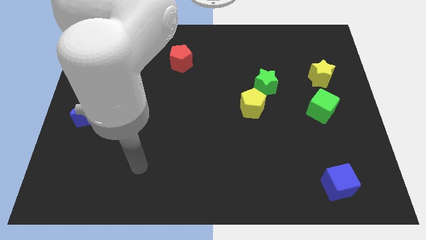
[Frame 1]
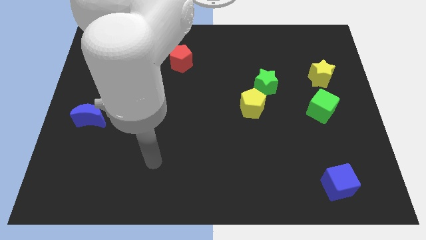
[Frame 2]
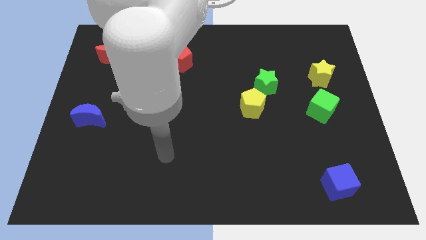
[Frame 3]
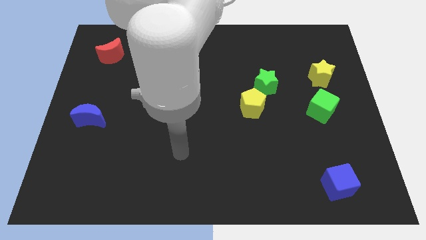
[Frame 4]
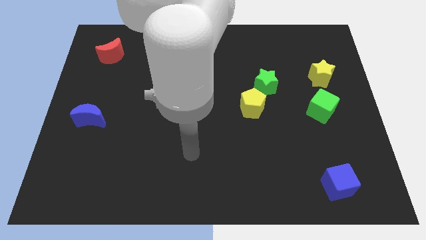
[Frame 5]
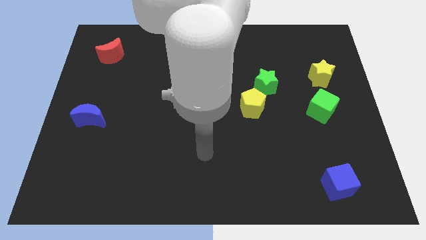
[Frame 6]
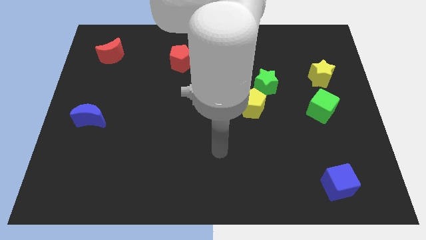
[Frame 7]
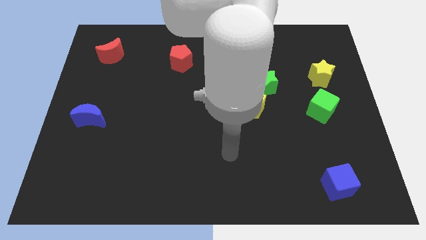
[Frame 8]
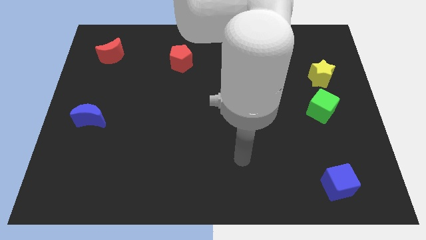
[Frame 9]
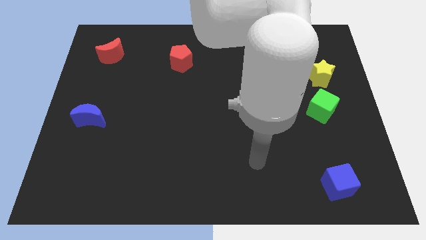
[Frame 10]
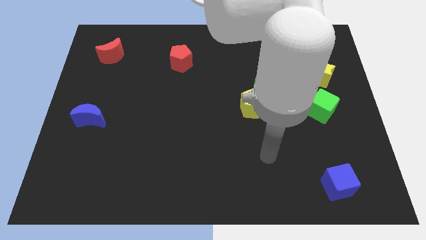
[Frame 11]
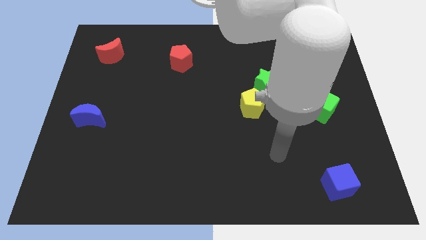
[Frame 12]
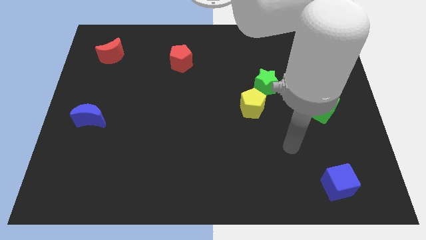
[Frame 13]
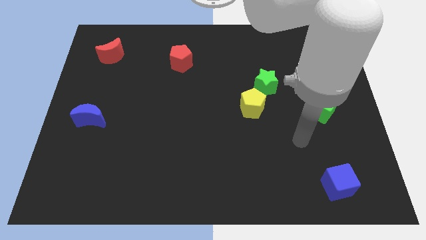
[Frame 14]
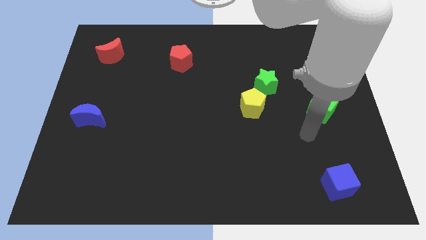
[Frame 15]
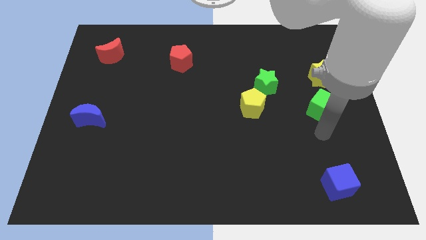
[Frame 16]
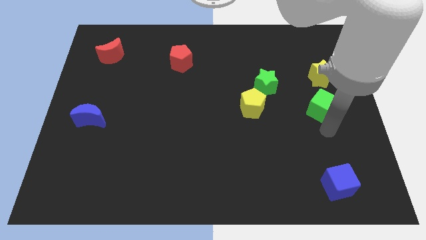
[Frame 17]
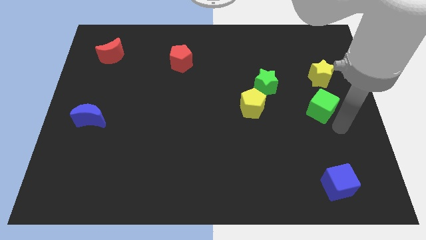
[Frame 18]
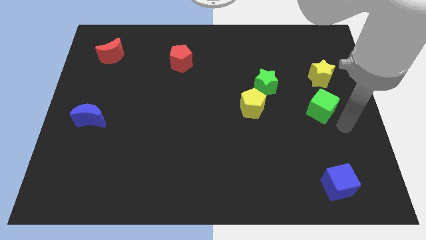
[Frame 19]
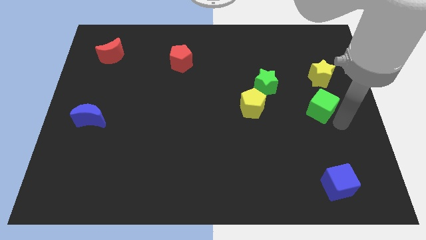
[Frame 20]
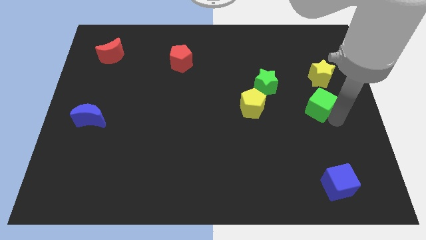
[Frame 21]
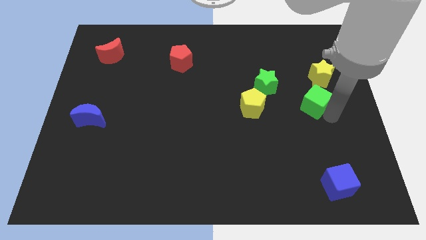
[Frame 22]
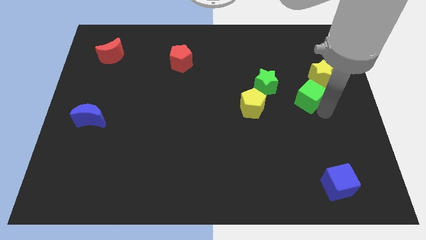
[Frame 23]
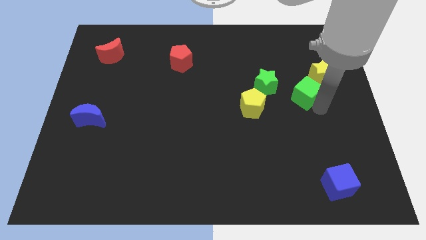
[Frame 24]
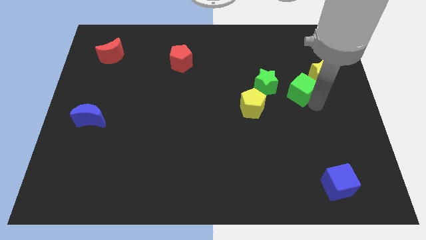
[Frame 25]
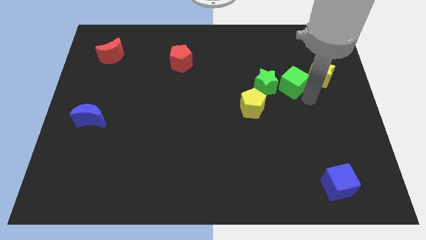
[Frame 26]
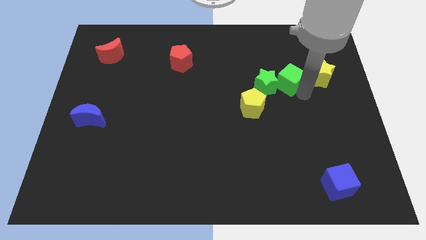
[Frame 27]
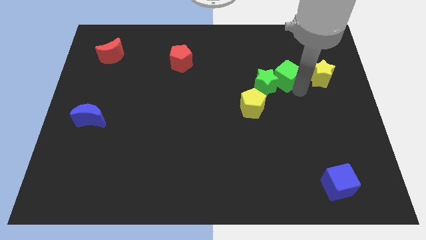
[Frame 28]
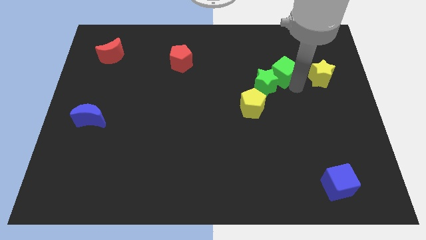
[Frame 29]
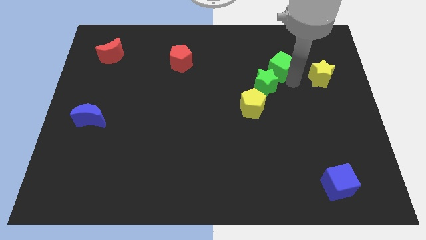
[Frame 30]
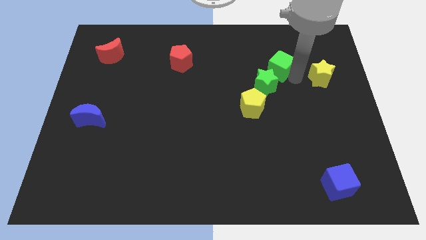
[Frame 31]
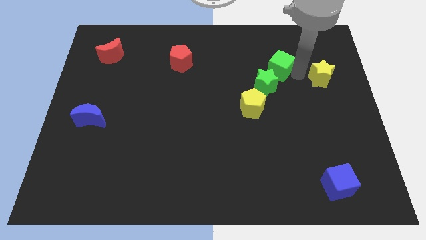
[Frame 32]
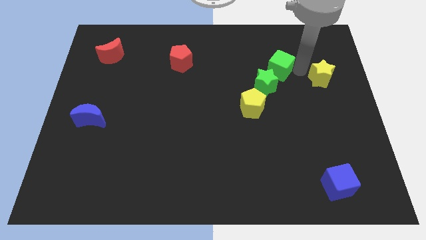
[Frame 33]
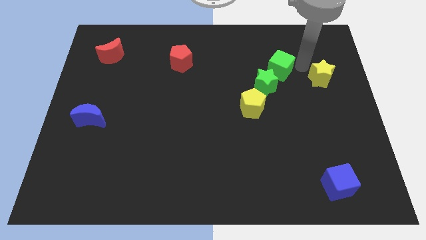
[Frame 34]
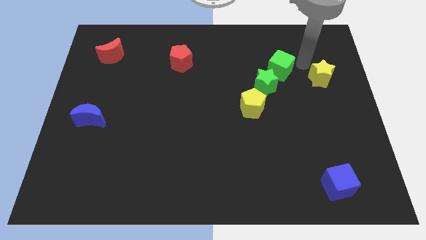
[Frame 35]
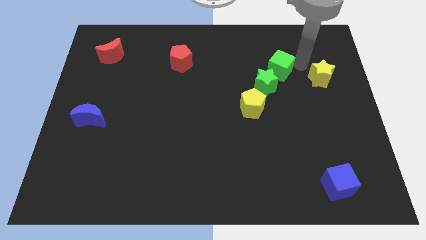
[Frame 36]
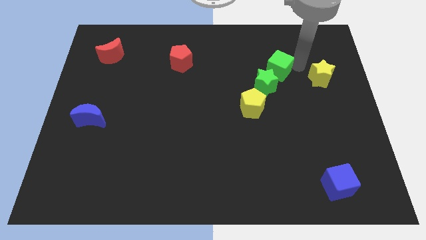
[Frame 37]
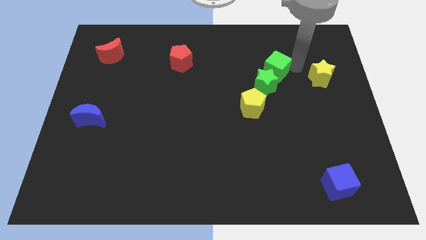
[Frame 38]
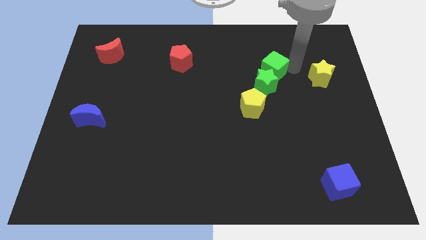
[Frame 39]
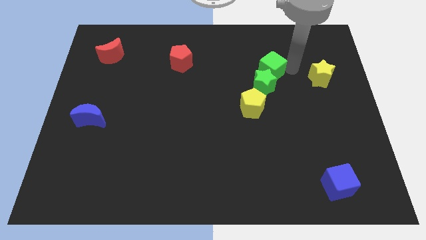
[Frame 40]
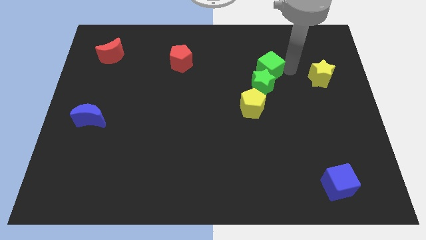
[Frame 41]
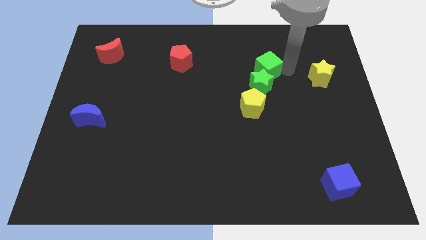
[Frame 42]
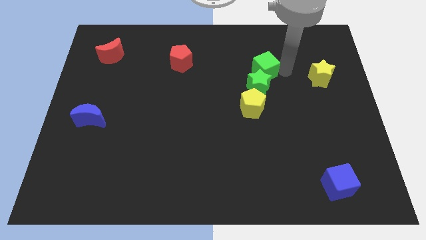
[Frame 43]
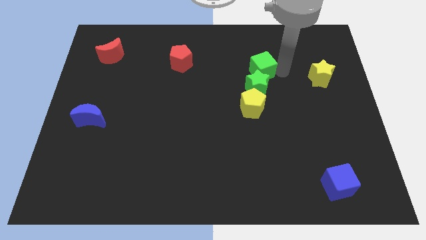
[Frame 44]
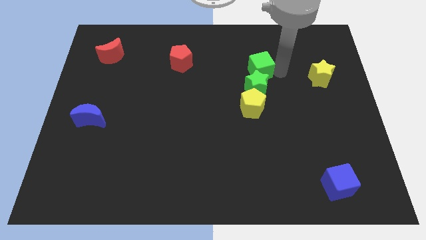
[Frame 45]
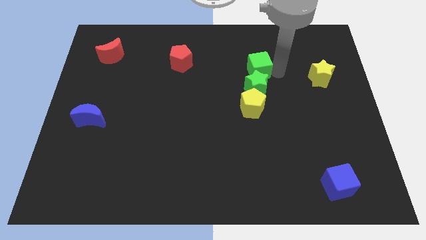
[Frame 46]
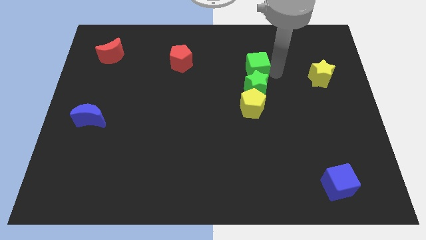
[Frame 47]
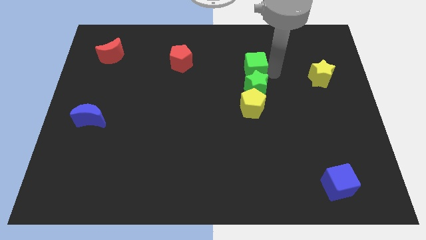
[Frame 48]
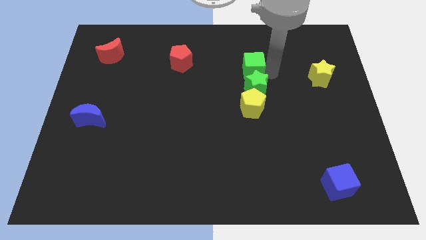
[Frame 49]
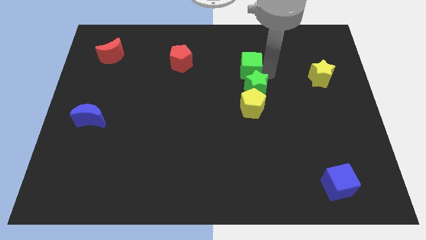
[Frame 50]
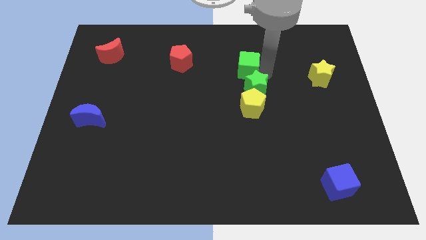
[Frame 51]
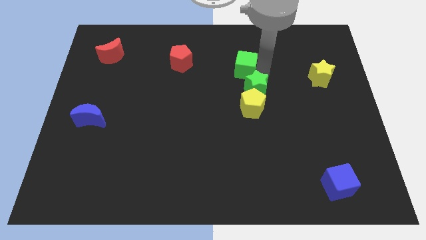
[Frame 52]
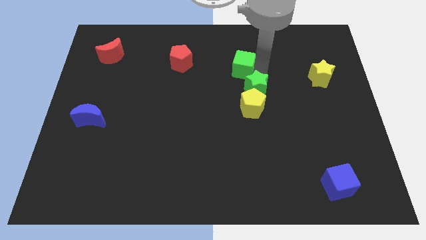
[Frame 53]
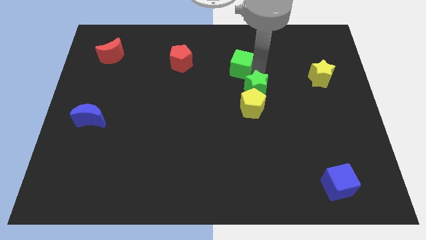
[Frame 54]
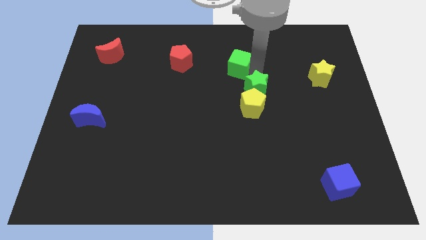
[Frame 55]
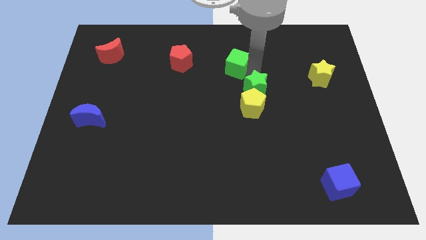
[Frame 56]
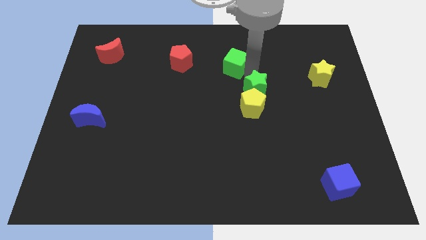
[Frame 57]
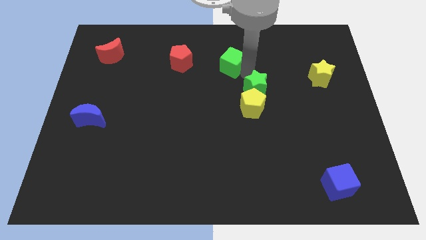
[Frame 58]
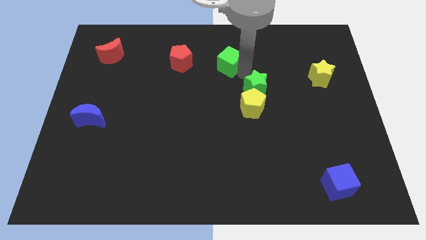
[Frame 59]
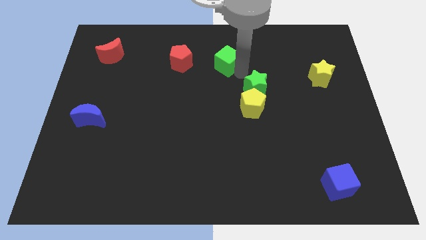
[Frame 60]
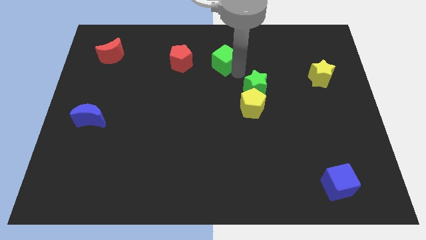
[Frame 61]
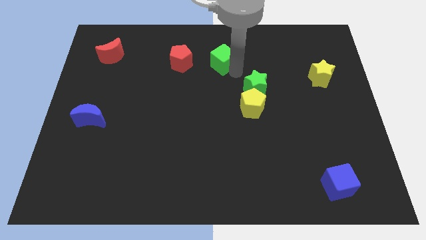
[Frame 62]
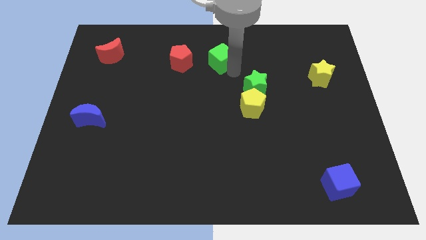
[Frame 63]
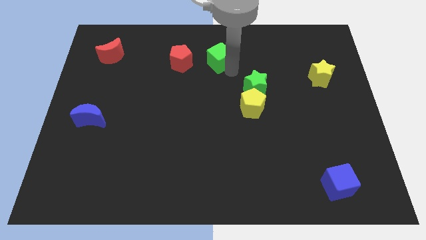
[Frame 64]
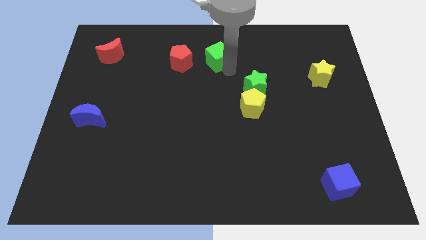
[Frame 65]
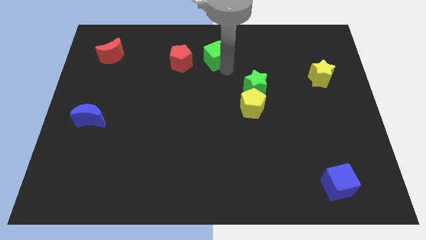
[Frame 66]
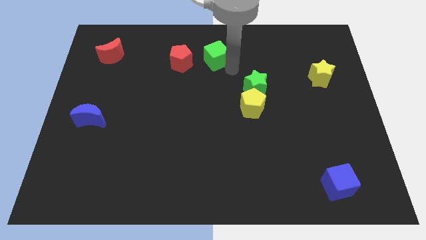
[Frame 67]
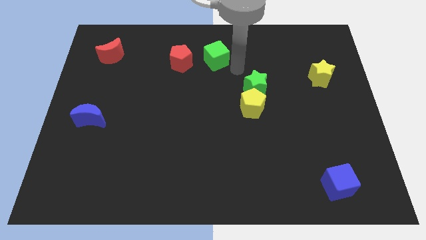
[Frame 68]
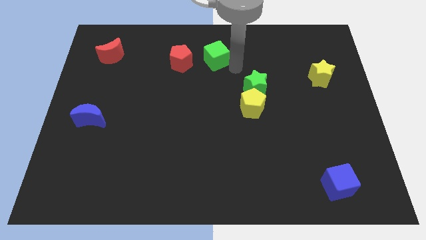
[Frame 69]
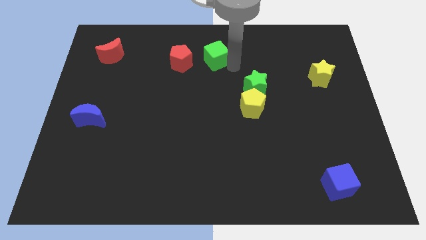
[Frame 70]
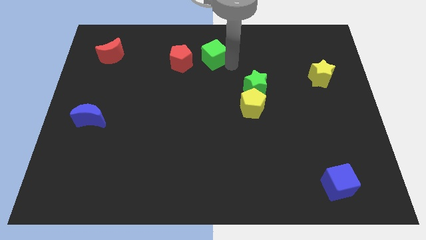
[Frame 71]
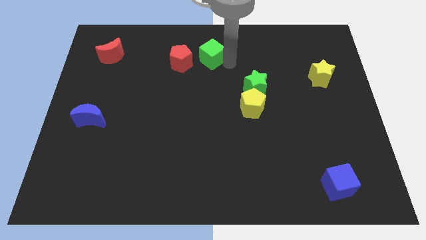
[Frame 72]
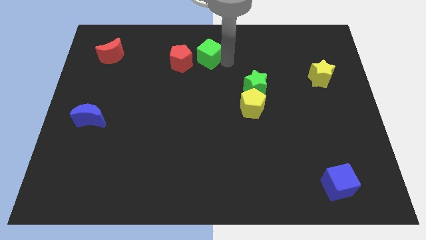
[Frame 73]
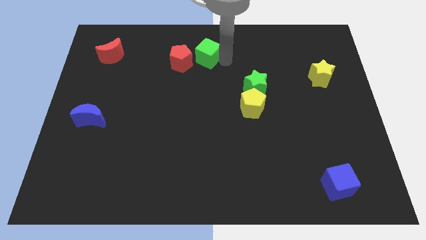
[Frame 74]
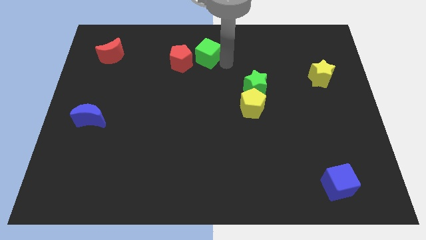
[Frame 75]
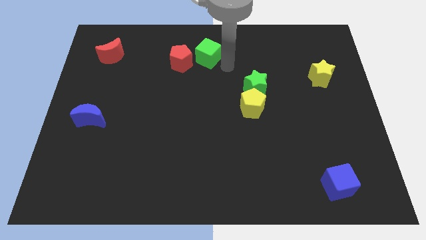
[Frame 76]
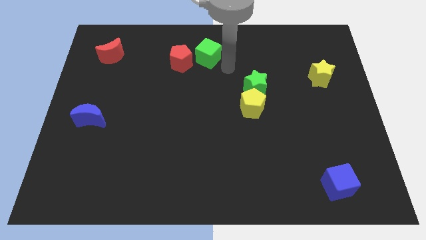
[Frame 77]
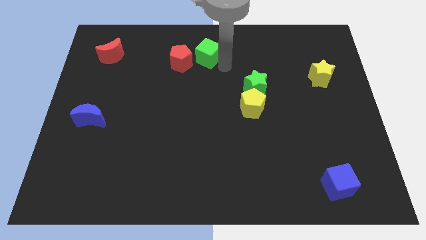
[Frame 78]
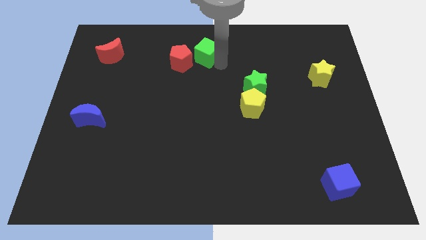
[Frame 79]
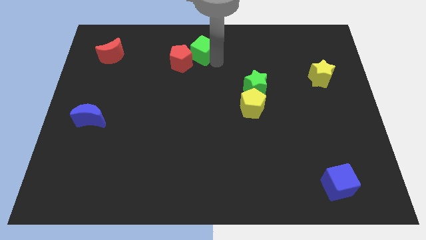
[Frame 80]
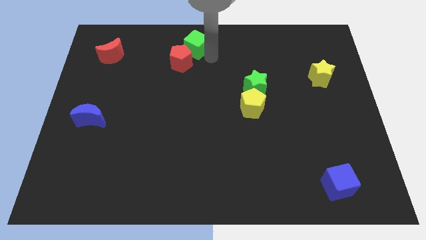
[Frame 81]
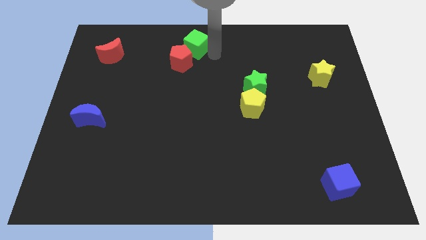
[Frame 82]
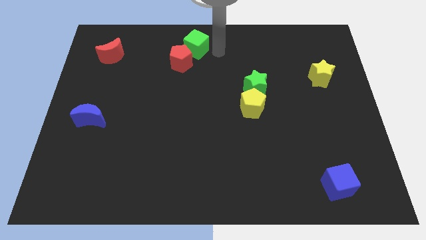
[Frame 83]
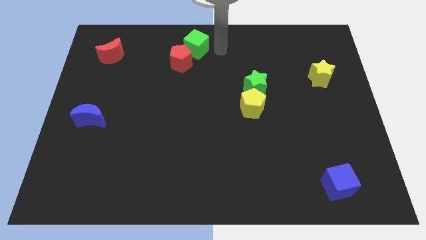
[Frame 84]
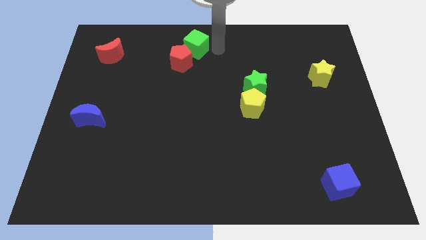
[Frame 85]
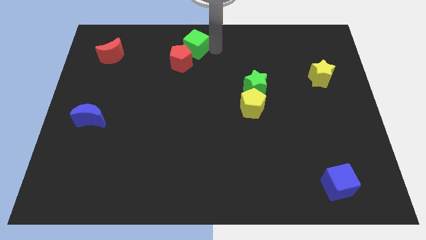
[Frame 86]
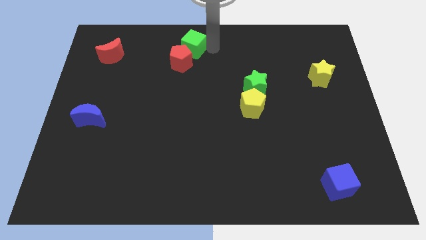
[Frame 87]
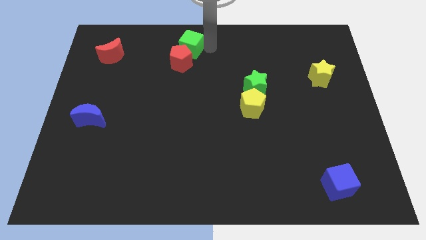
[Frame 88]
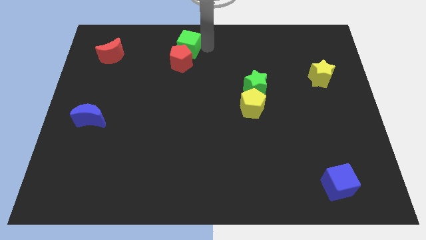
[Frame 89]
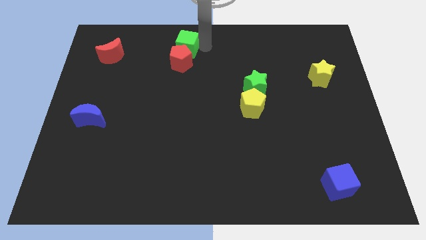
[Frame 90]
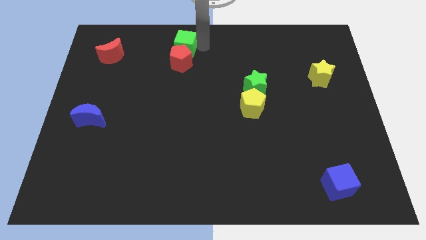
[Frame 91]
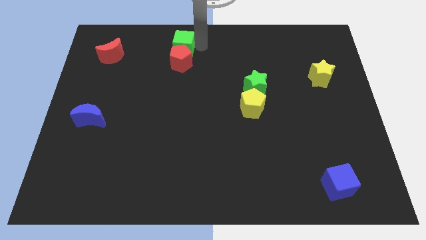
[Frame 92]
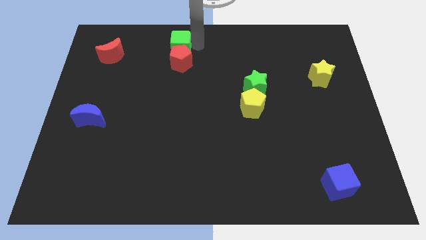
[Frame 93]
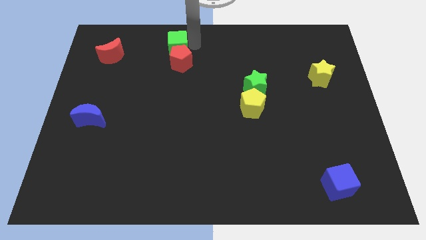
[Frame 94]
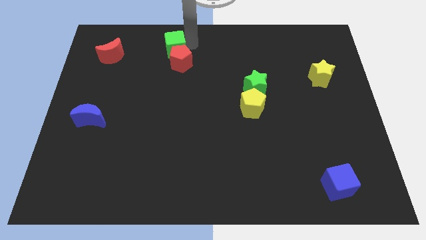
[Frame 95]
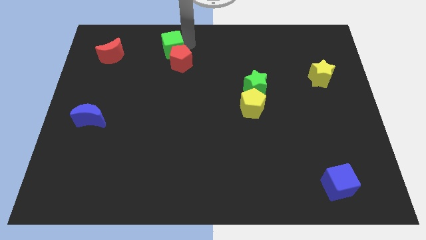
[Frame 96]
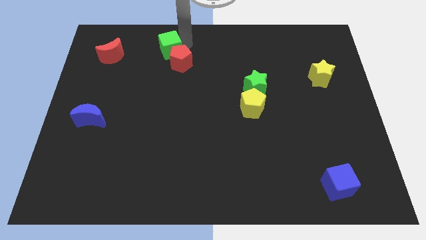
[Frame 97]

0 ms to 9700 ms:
move the green cube right of the red moon
